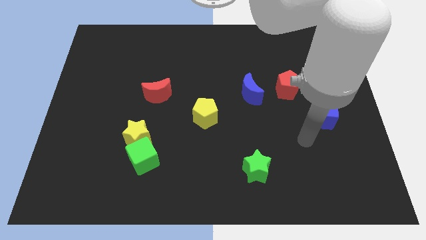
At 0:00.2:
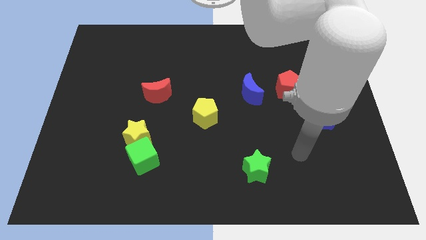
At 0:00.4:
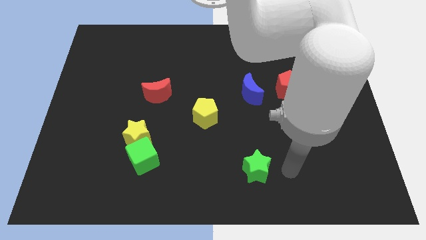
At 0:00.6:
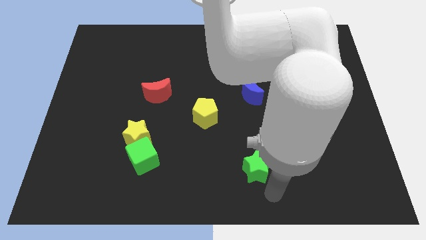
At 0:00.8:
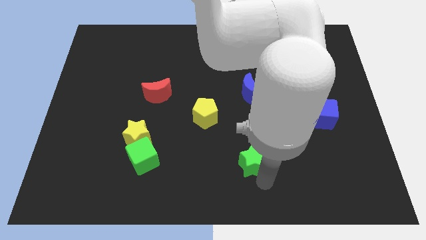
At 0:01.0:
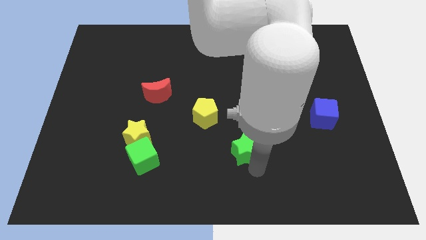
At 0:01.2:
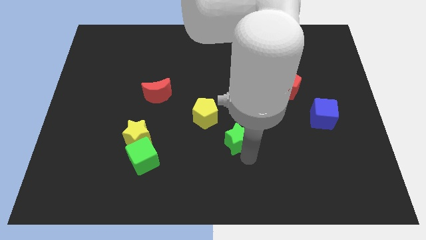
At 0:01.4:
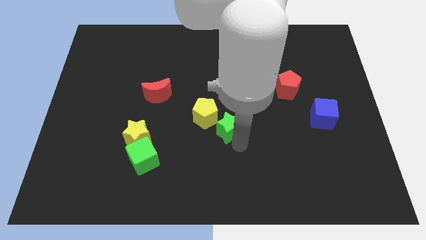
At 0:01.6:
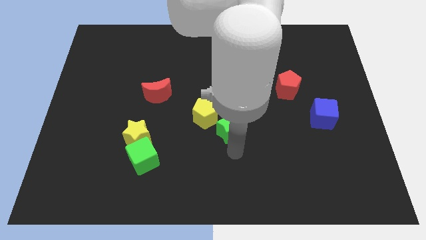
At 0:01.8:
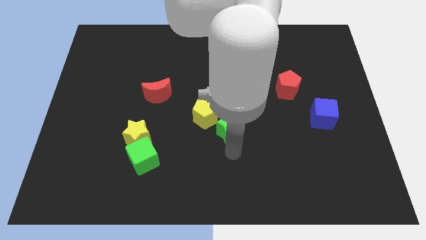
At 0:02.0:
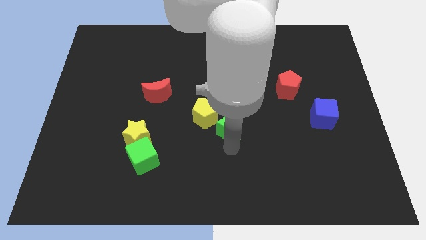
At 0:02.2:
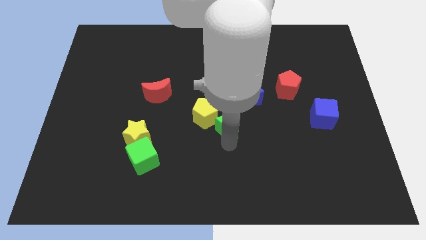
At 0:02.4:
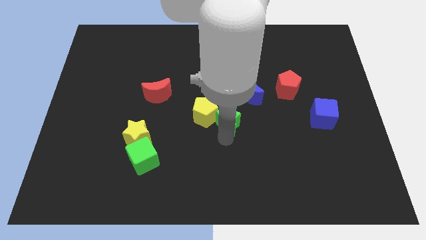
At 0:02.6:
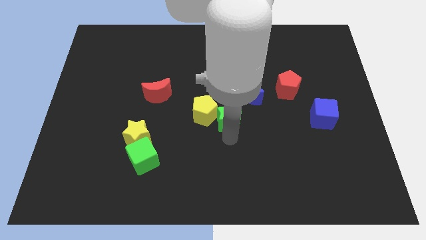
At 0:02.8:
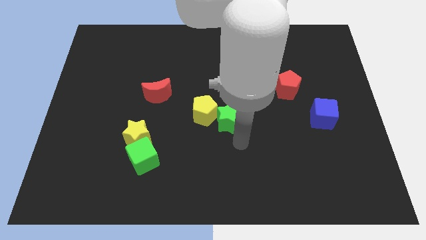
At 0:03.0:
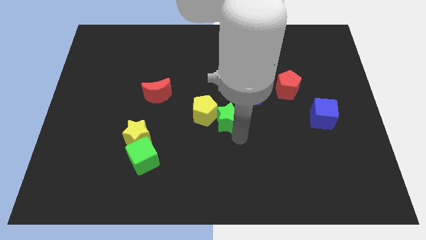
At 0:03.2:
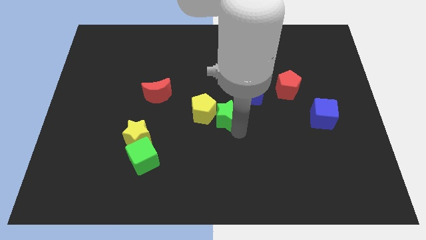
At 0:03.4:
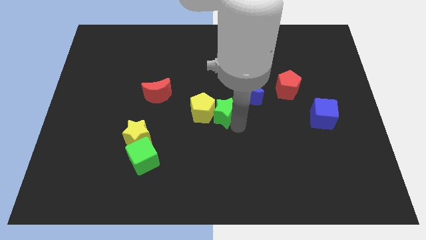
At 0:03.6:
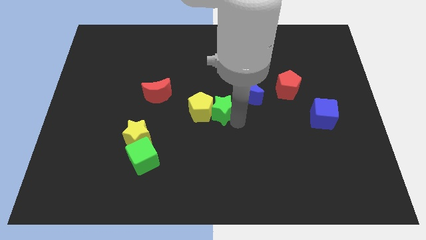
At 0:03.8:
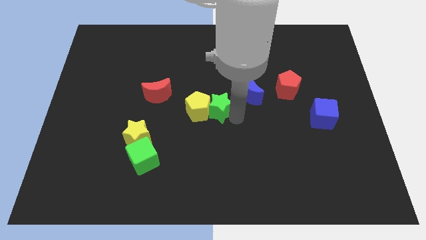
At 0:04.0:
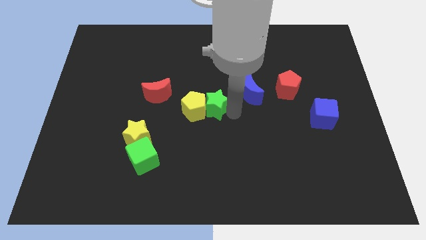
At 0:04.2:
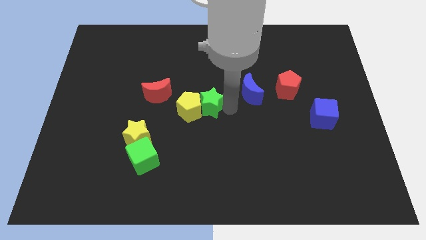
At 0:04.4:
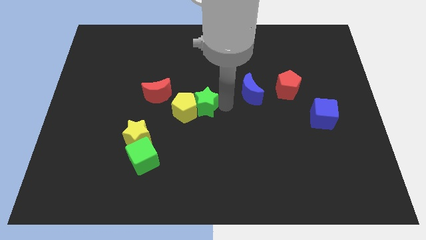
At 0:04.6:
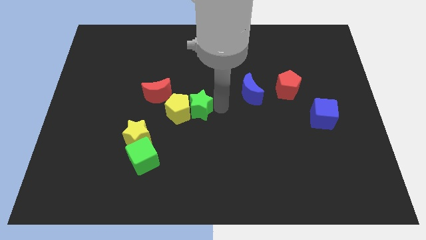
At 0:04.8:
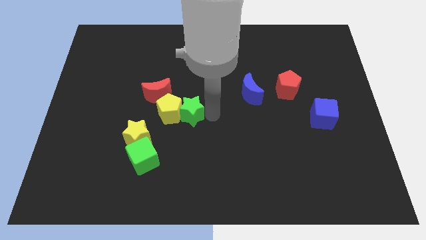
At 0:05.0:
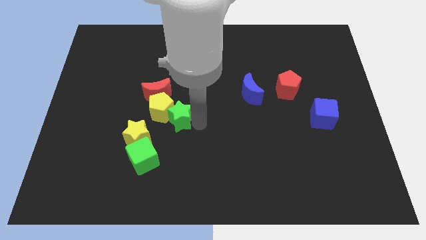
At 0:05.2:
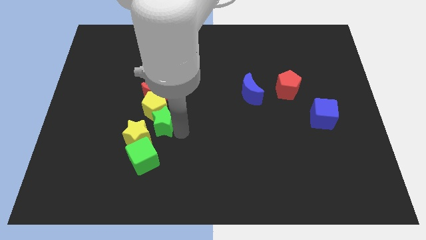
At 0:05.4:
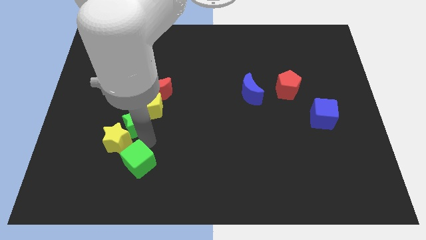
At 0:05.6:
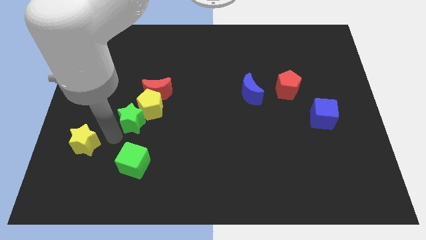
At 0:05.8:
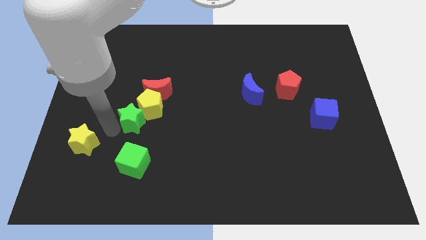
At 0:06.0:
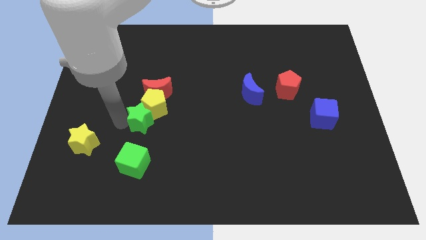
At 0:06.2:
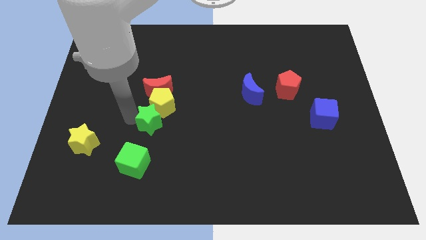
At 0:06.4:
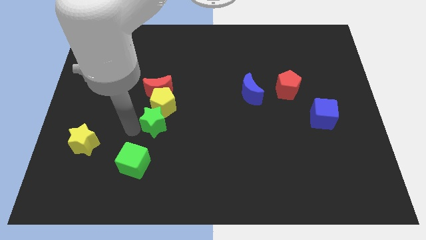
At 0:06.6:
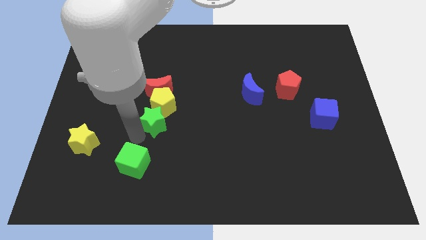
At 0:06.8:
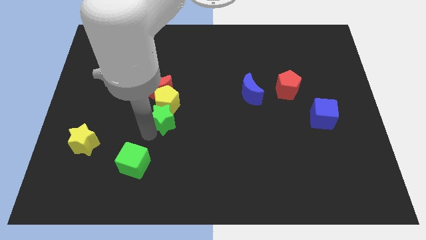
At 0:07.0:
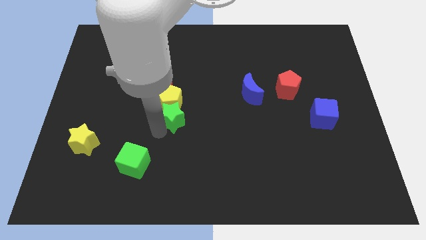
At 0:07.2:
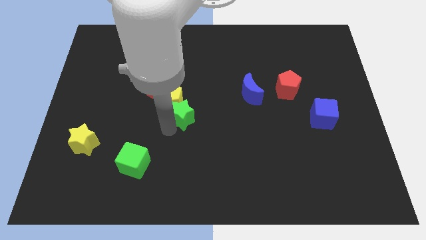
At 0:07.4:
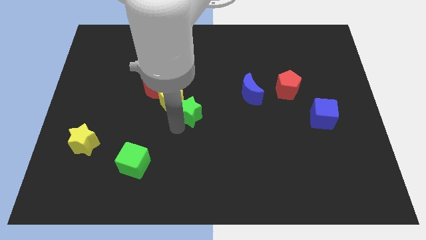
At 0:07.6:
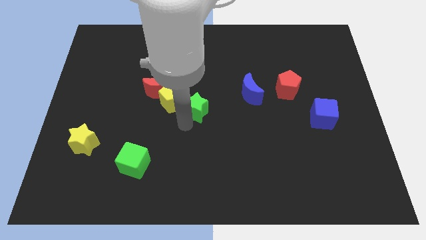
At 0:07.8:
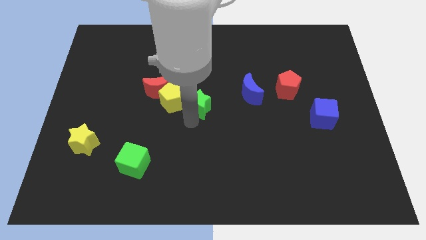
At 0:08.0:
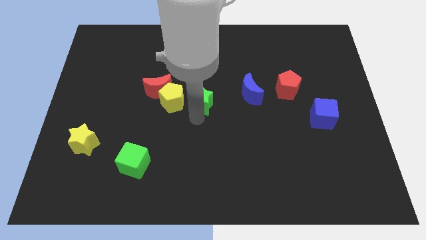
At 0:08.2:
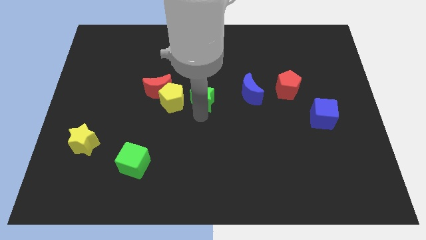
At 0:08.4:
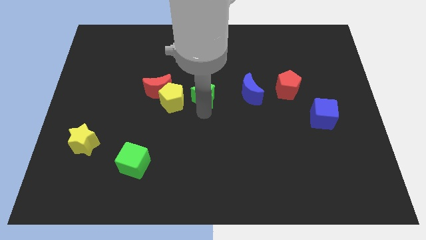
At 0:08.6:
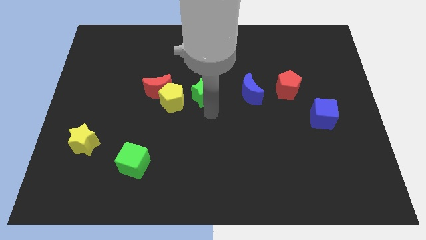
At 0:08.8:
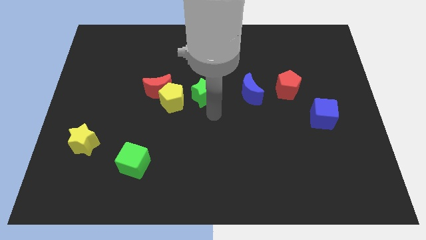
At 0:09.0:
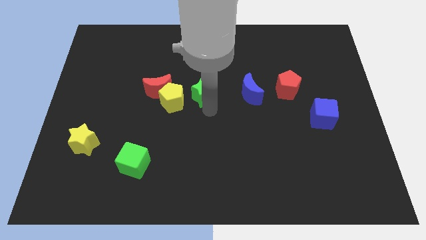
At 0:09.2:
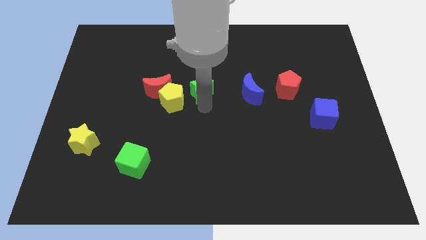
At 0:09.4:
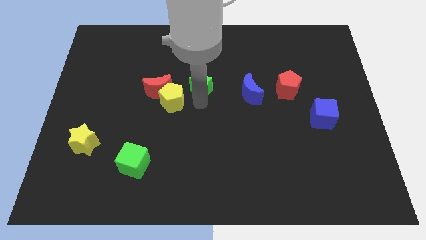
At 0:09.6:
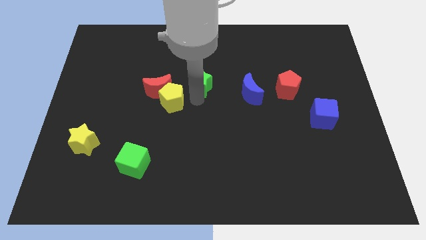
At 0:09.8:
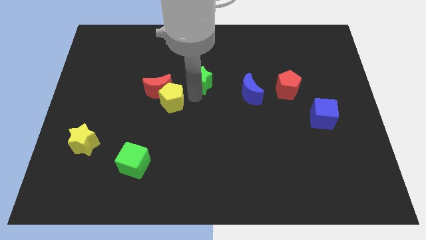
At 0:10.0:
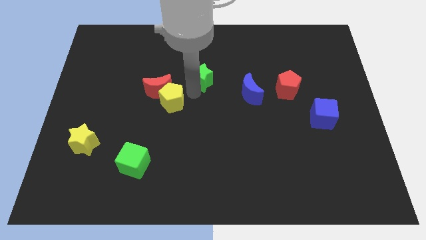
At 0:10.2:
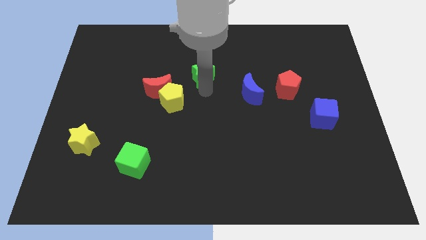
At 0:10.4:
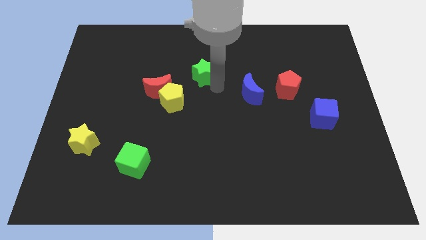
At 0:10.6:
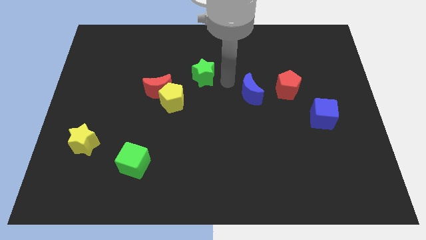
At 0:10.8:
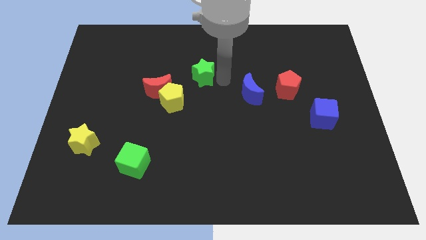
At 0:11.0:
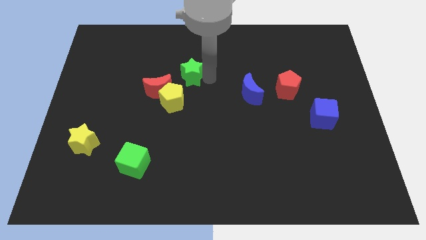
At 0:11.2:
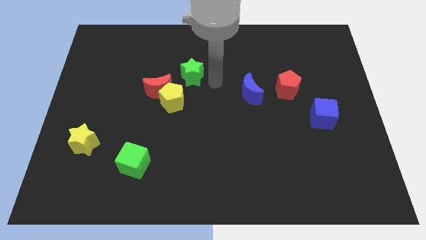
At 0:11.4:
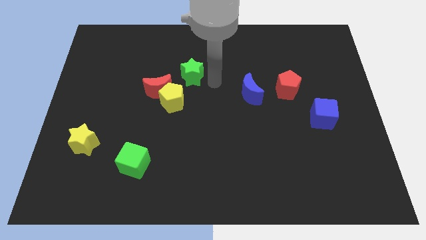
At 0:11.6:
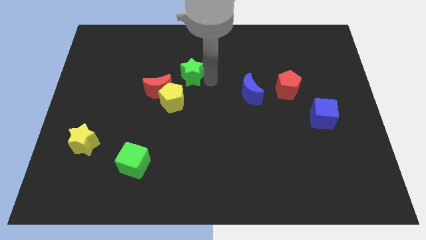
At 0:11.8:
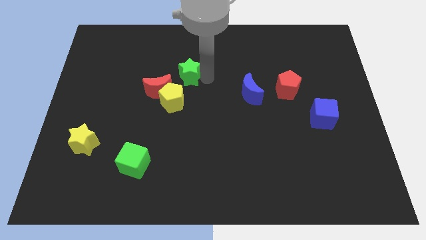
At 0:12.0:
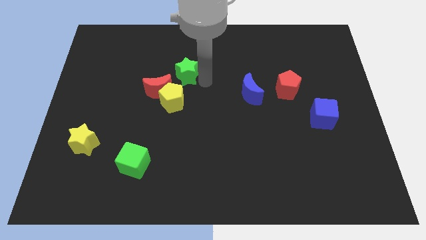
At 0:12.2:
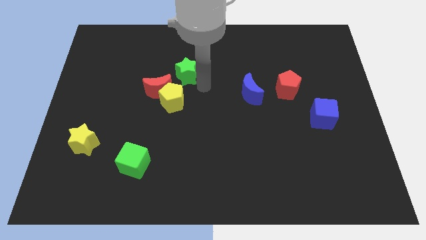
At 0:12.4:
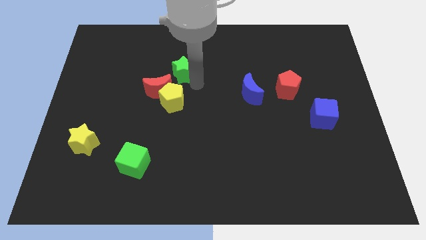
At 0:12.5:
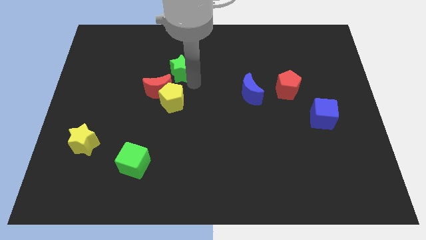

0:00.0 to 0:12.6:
push the green star to the top side of the red moon
